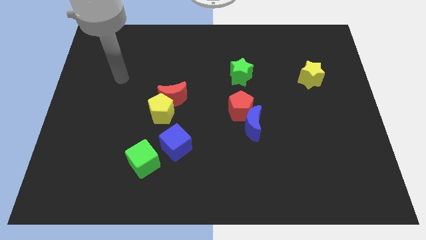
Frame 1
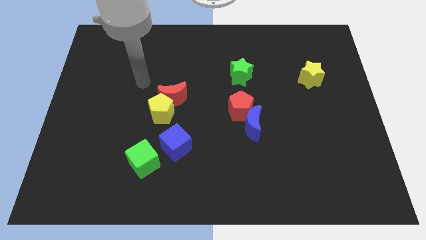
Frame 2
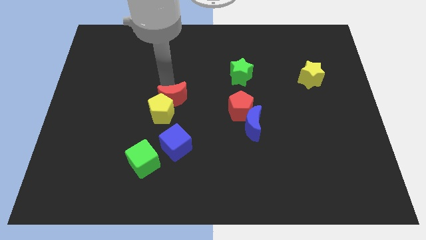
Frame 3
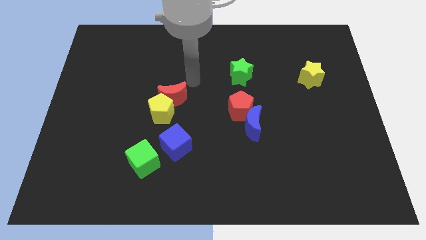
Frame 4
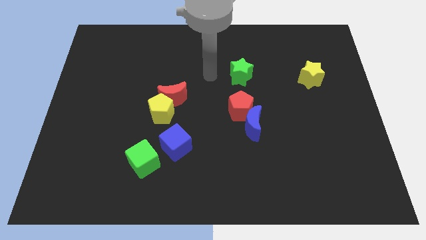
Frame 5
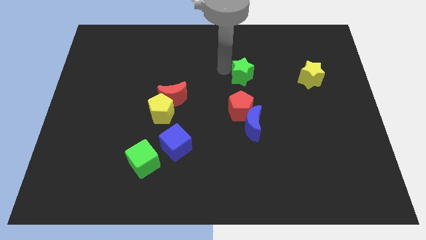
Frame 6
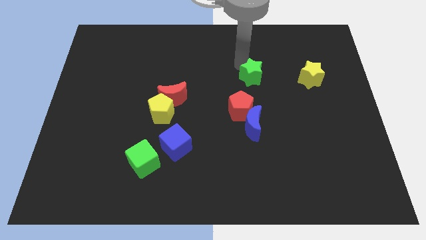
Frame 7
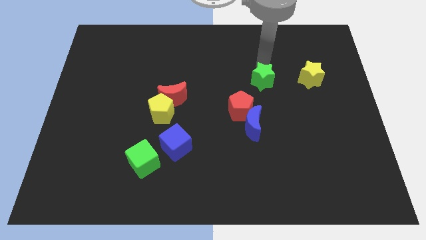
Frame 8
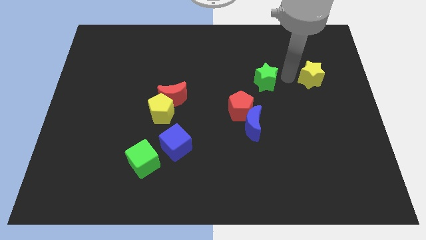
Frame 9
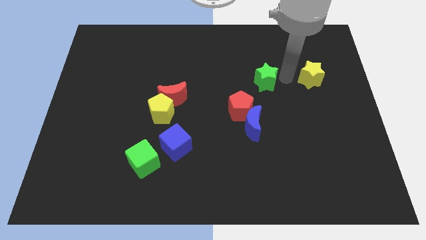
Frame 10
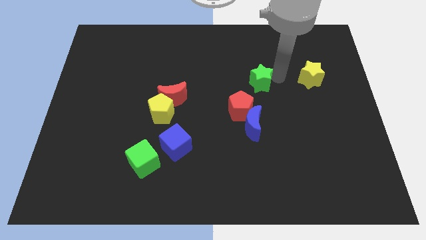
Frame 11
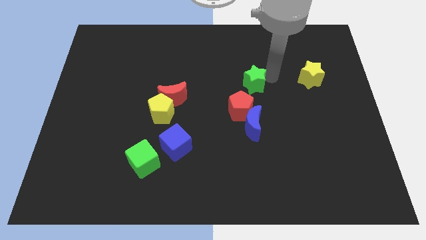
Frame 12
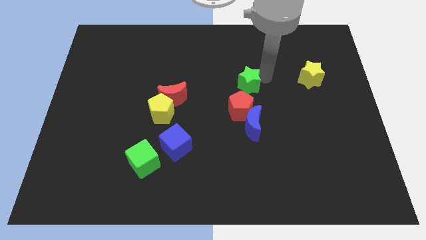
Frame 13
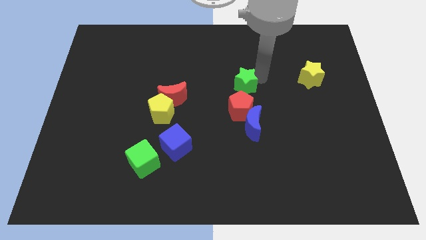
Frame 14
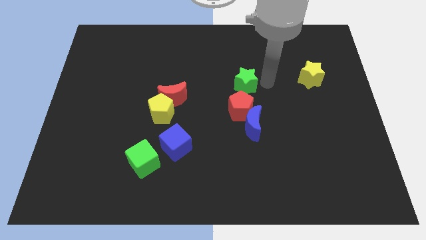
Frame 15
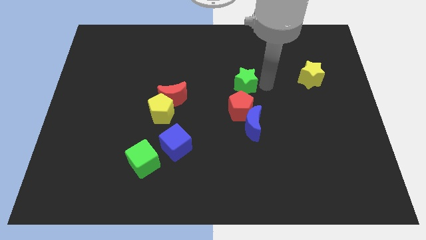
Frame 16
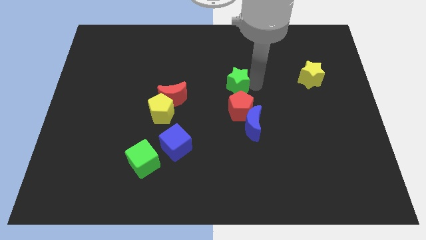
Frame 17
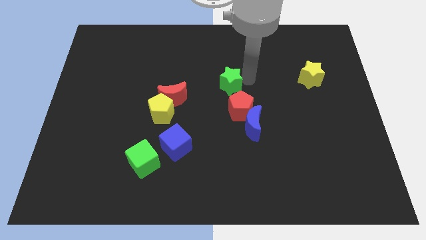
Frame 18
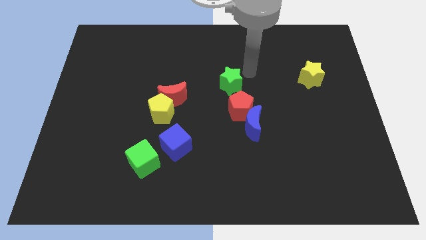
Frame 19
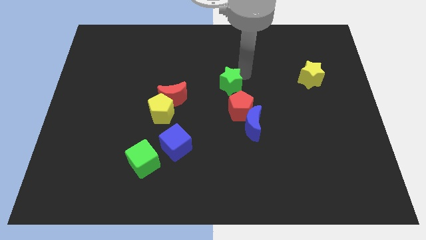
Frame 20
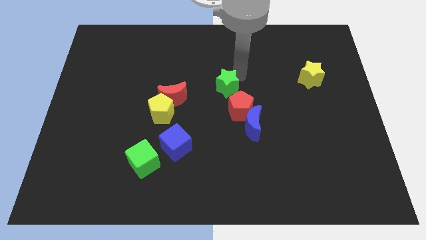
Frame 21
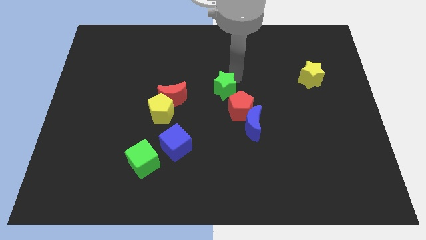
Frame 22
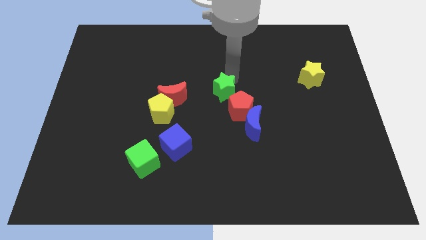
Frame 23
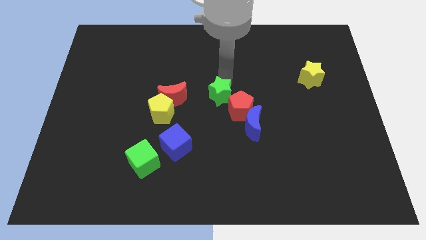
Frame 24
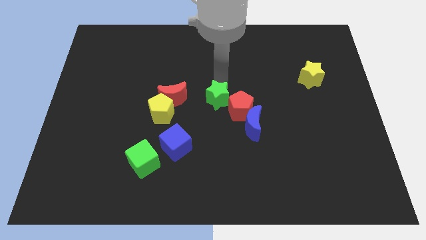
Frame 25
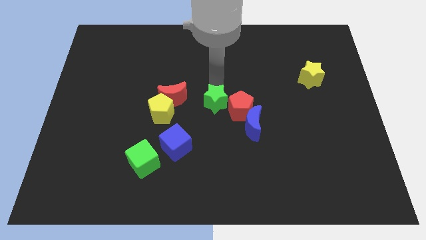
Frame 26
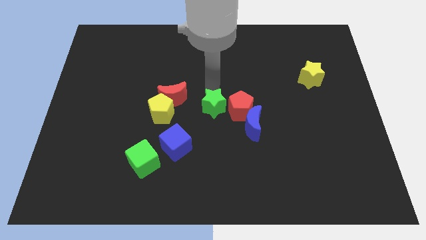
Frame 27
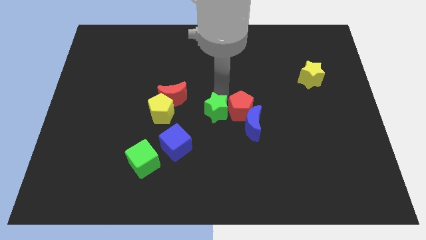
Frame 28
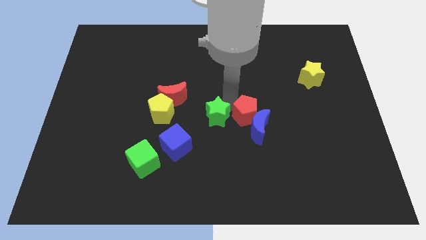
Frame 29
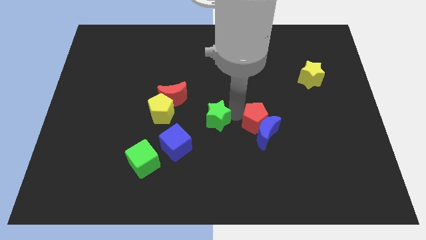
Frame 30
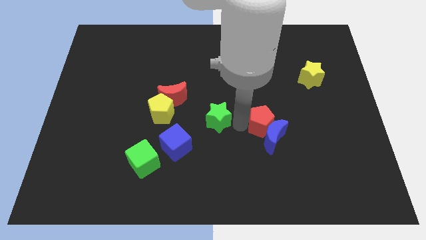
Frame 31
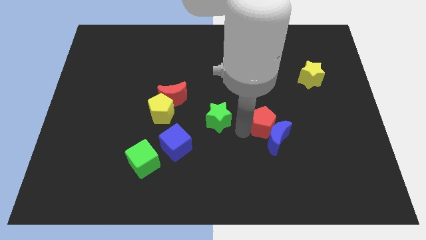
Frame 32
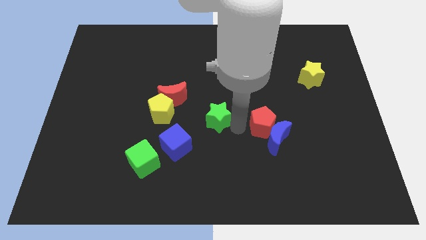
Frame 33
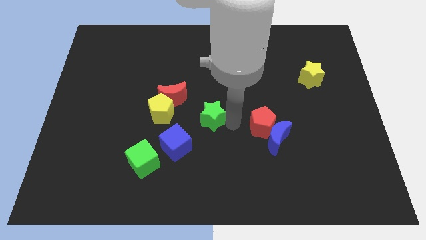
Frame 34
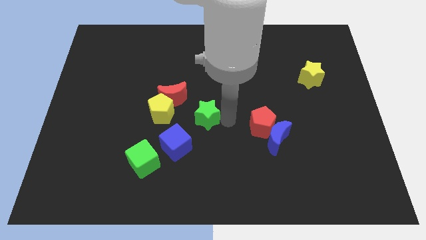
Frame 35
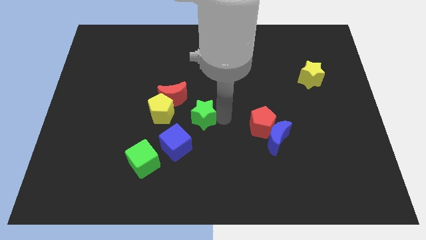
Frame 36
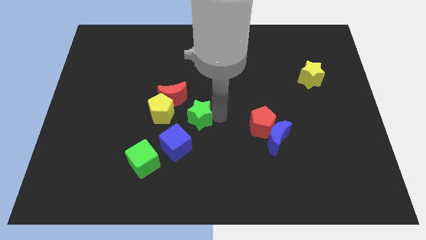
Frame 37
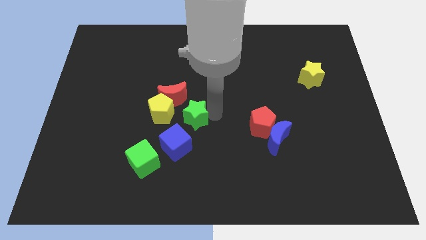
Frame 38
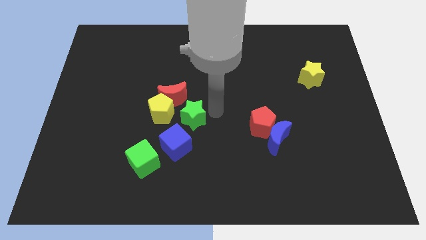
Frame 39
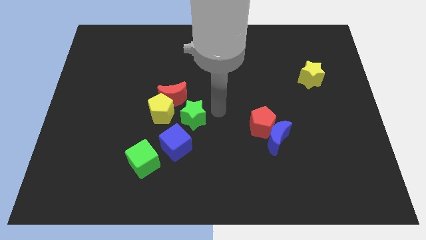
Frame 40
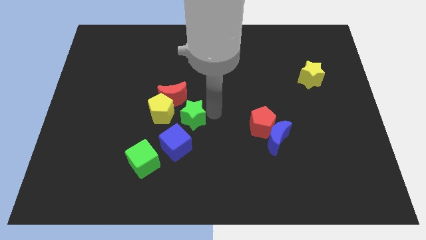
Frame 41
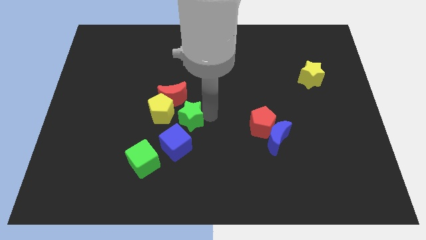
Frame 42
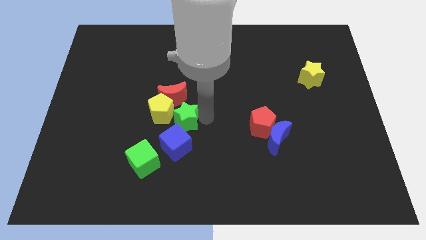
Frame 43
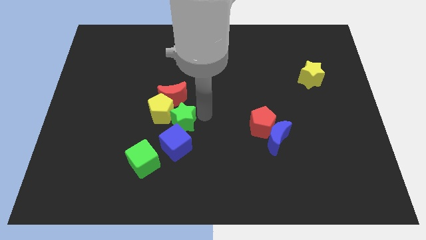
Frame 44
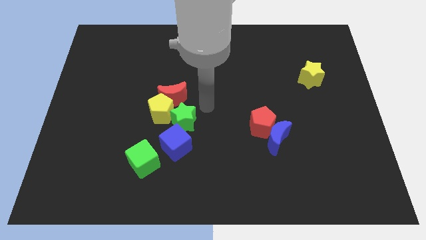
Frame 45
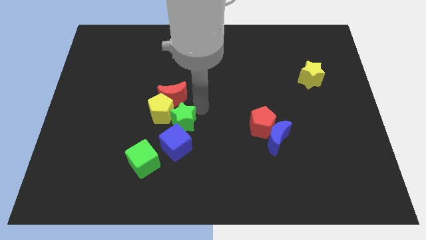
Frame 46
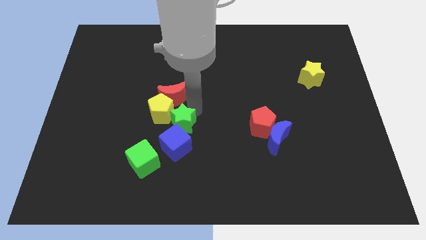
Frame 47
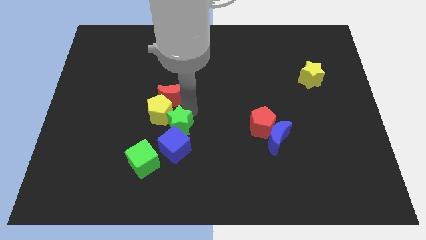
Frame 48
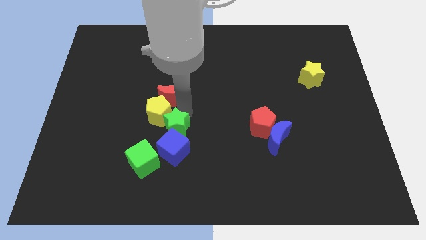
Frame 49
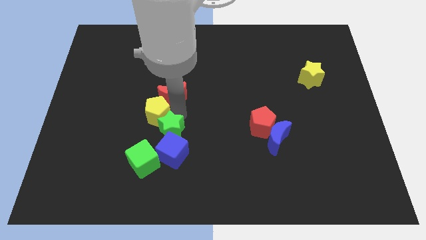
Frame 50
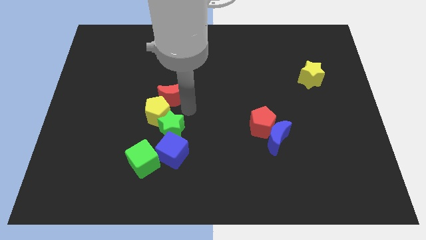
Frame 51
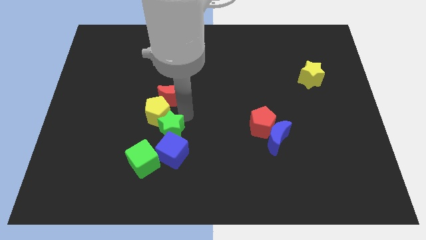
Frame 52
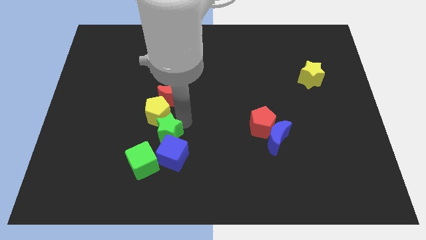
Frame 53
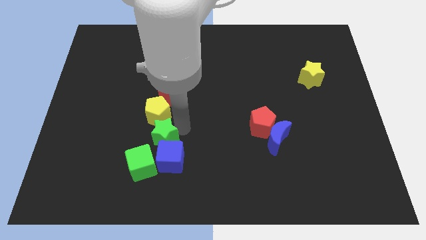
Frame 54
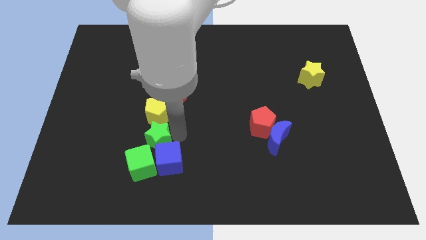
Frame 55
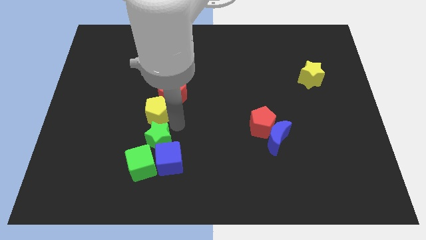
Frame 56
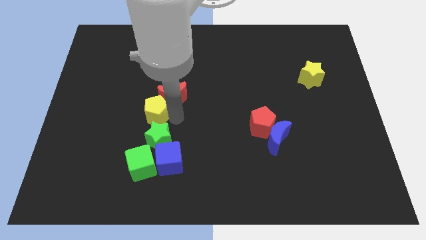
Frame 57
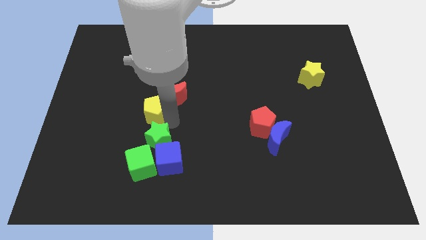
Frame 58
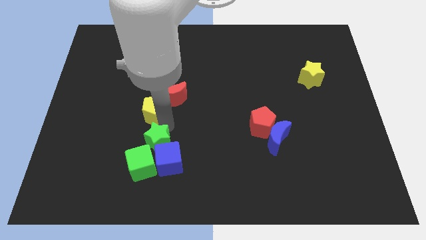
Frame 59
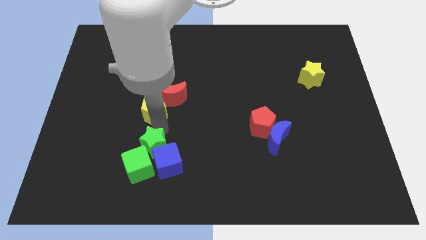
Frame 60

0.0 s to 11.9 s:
move the green star towards the green cube

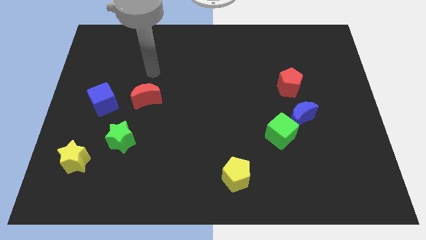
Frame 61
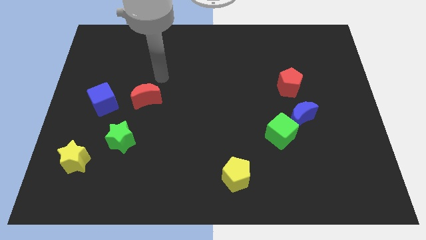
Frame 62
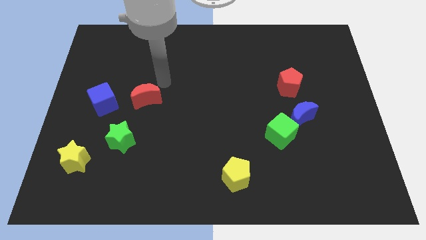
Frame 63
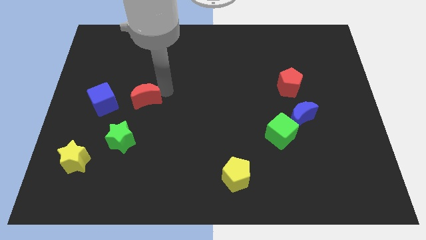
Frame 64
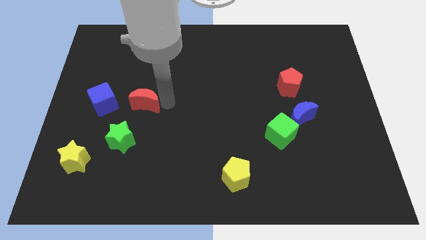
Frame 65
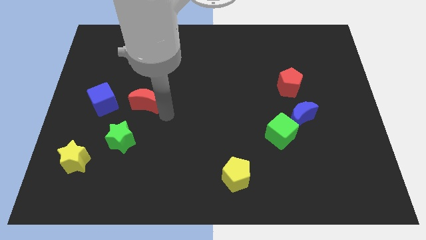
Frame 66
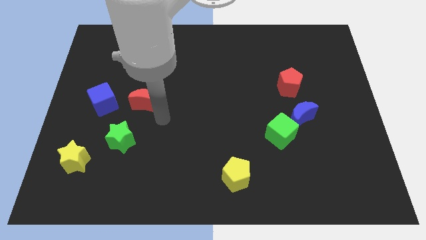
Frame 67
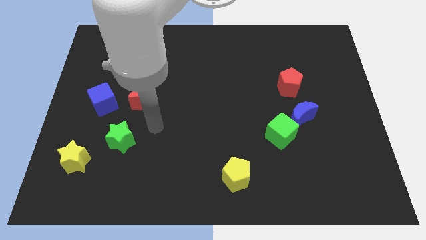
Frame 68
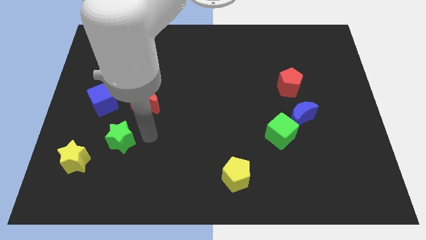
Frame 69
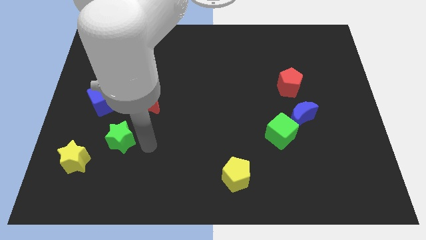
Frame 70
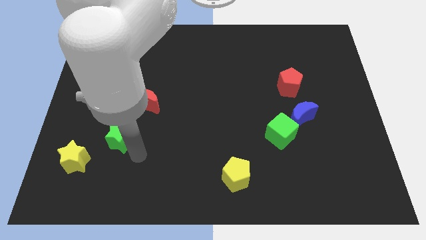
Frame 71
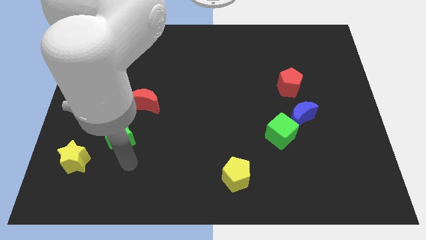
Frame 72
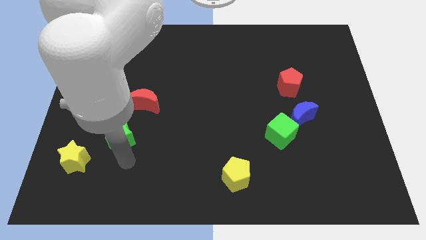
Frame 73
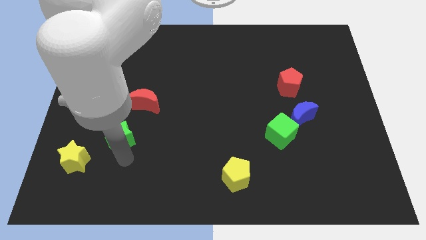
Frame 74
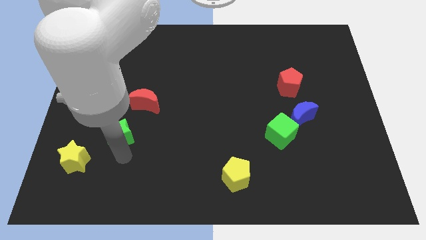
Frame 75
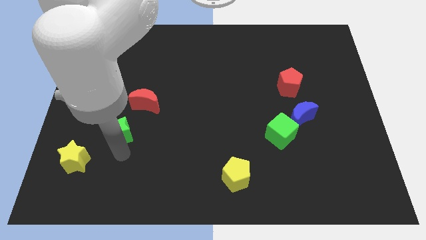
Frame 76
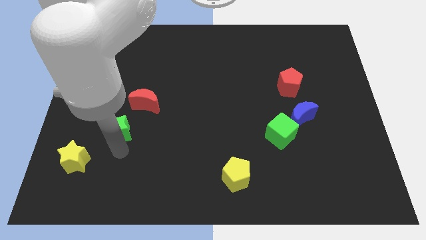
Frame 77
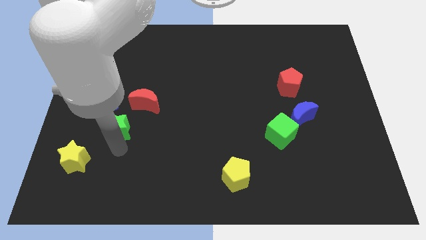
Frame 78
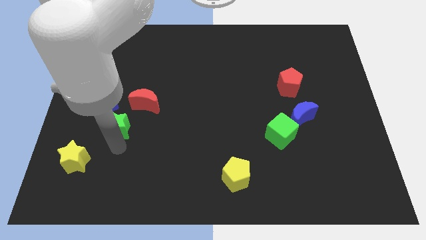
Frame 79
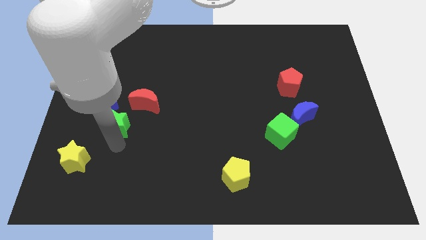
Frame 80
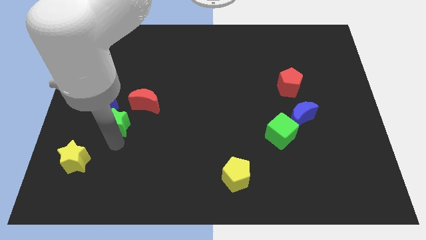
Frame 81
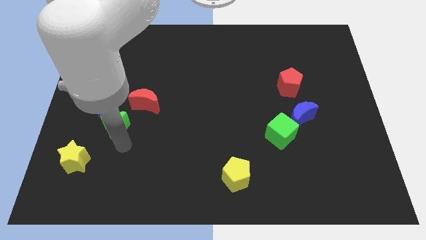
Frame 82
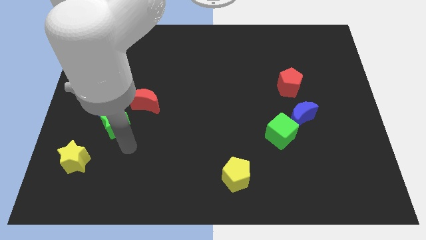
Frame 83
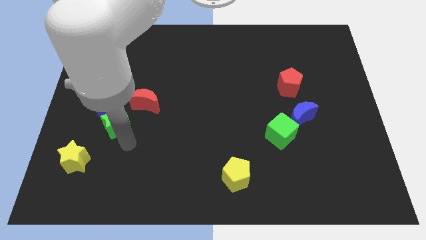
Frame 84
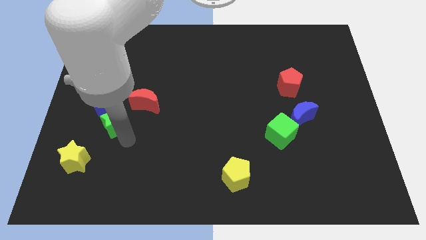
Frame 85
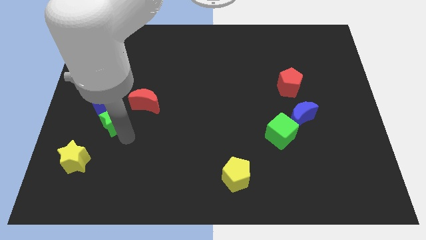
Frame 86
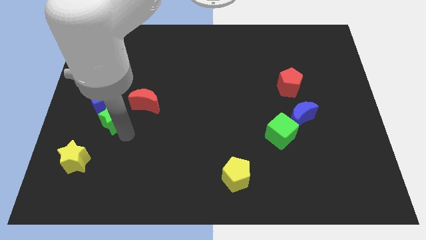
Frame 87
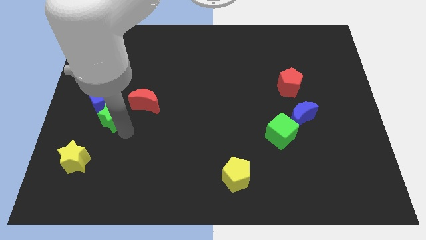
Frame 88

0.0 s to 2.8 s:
move the green star towards the blue cube
